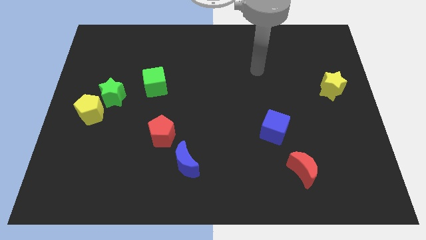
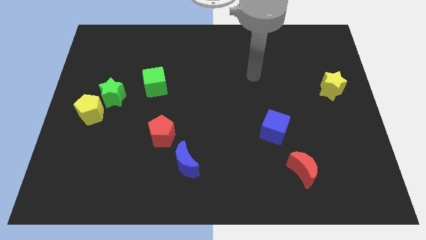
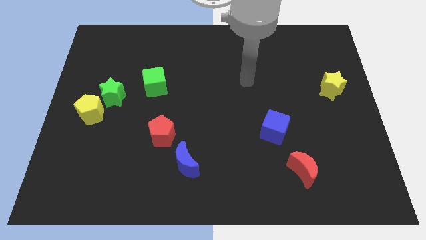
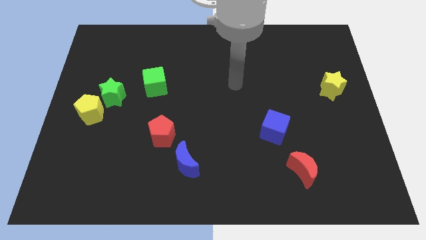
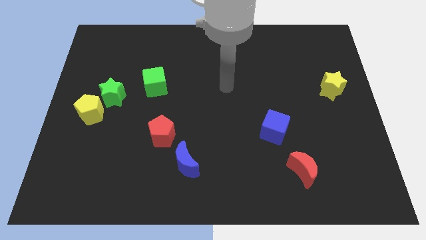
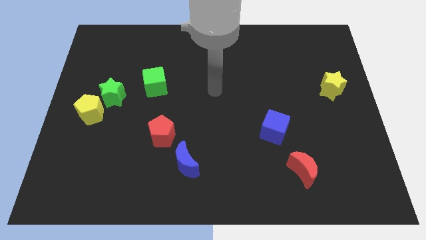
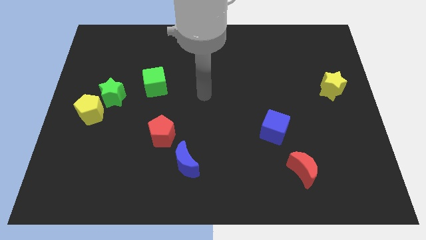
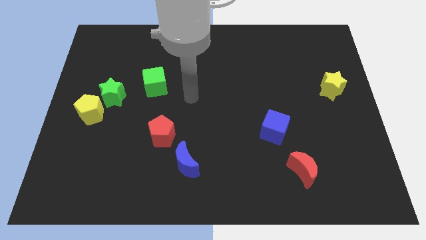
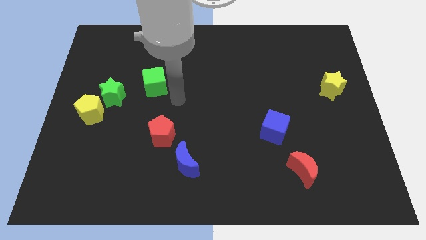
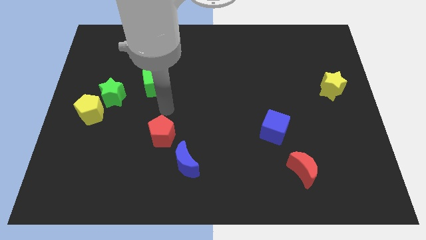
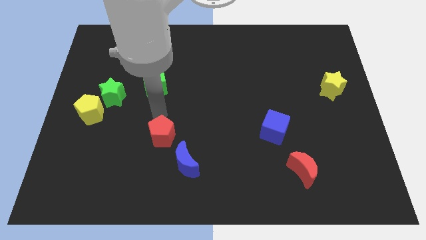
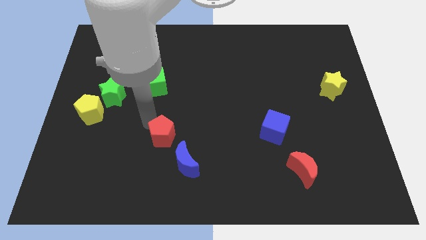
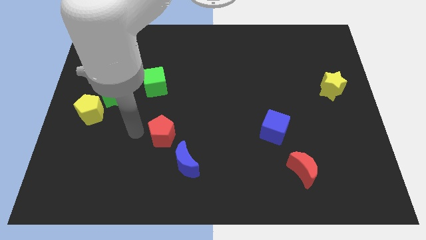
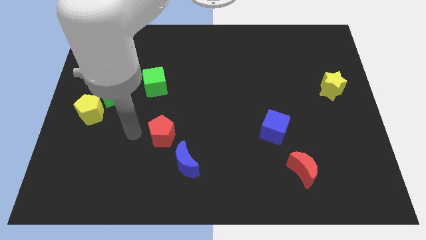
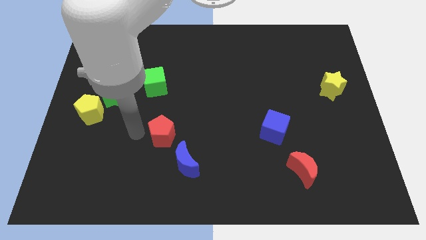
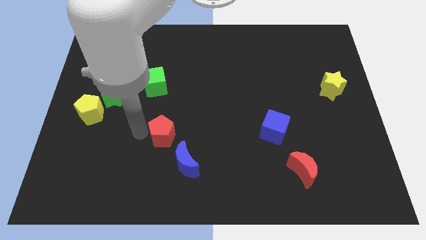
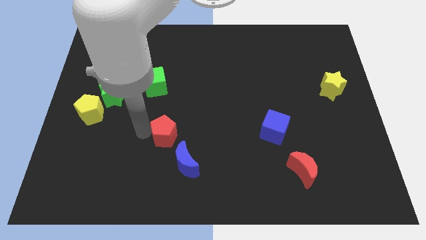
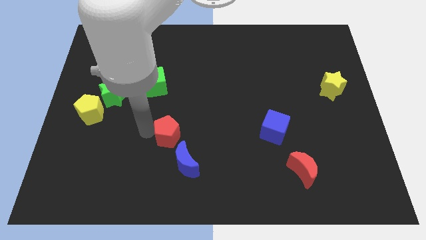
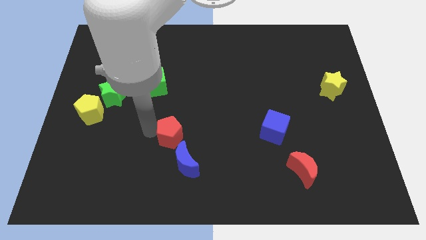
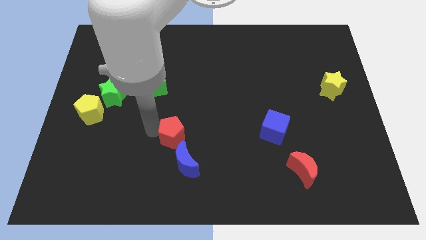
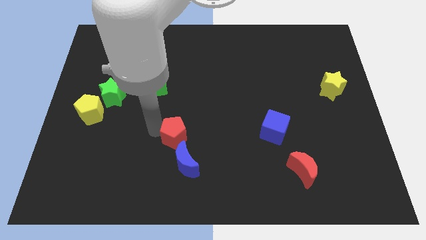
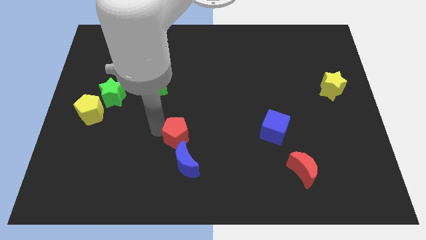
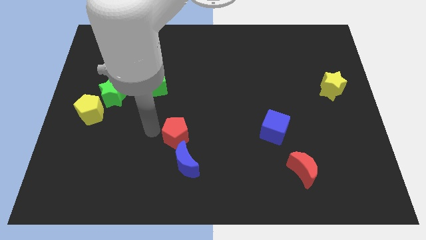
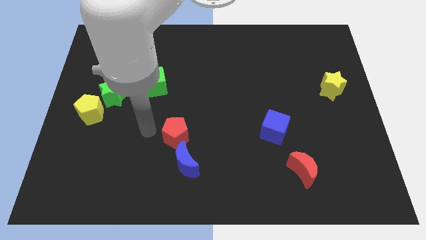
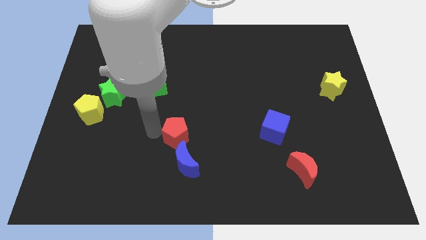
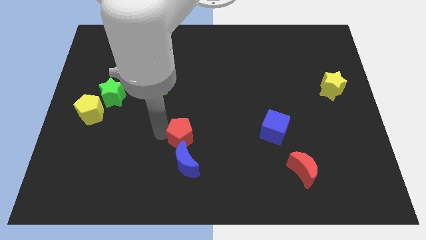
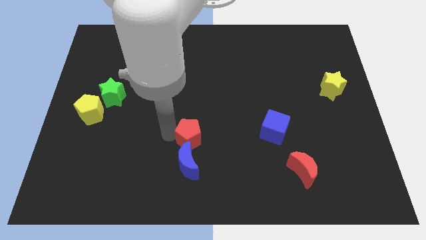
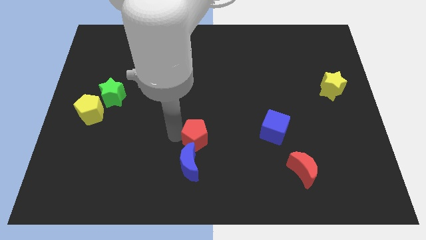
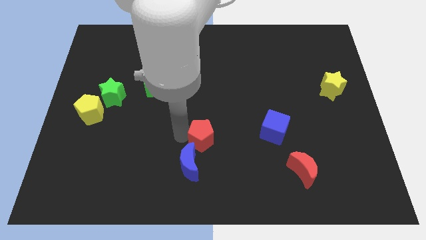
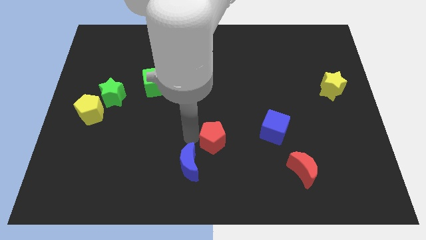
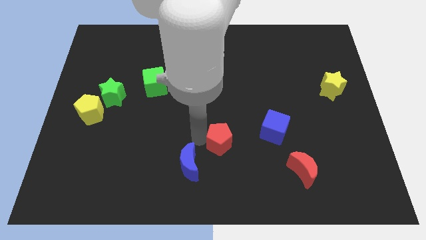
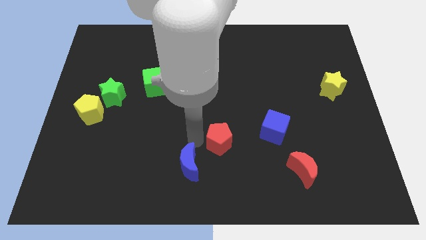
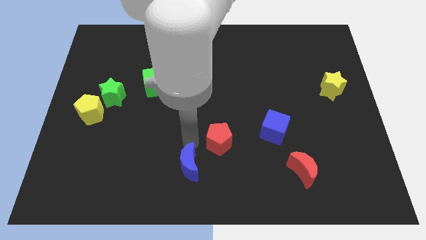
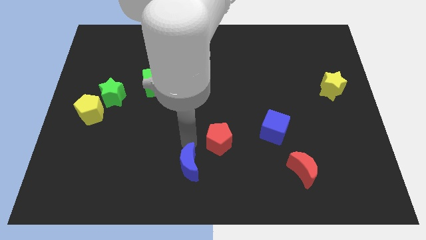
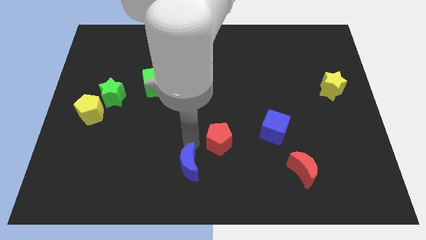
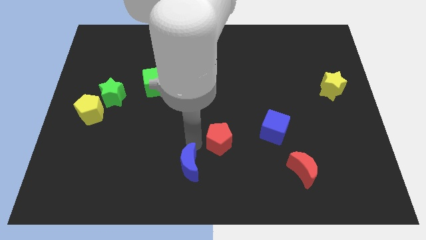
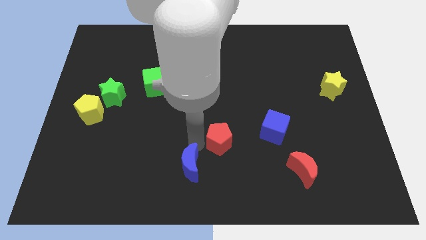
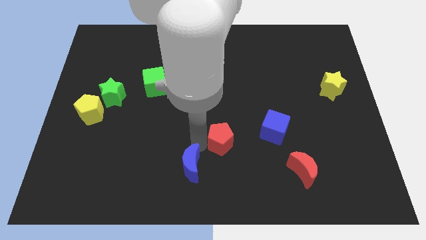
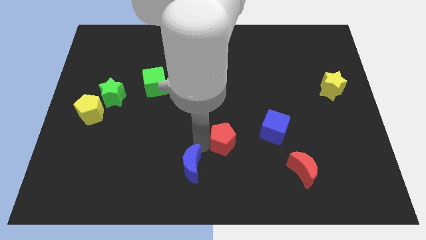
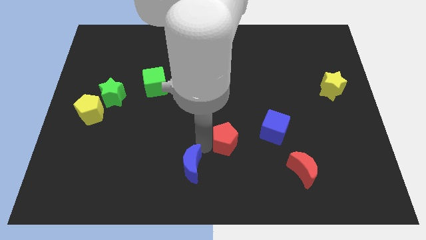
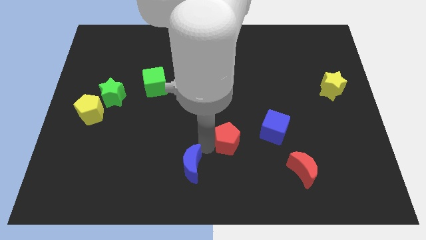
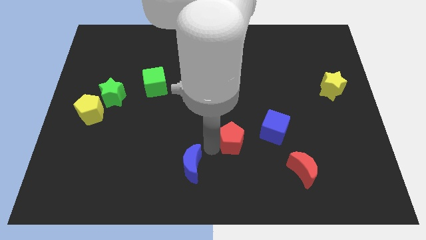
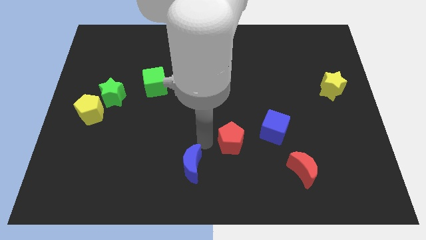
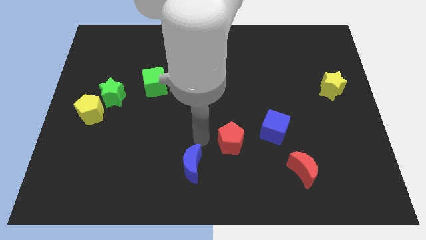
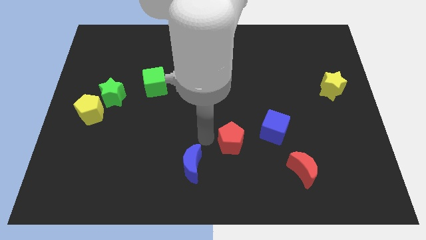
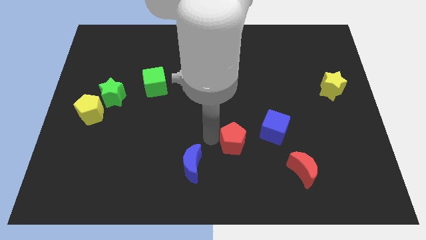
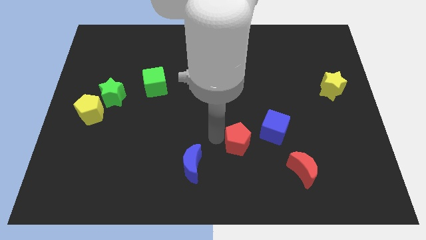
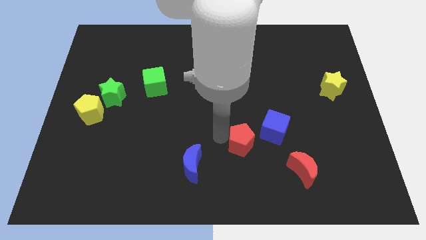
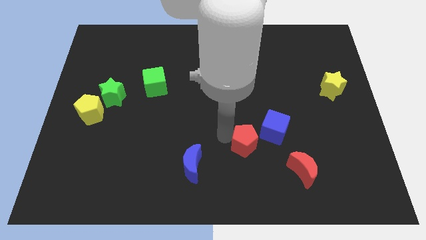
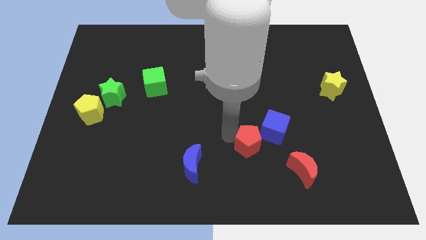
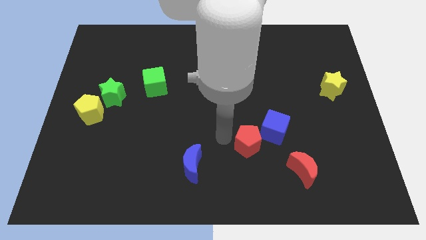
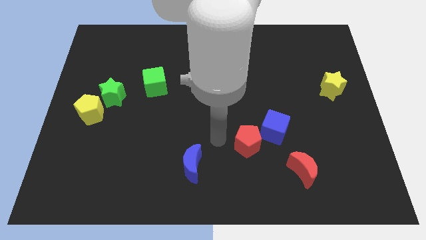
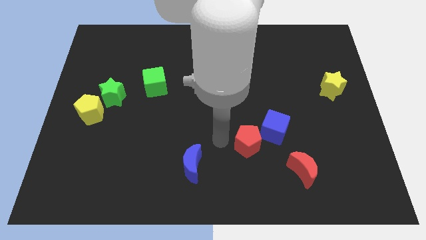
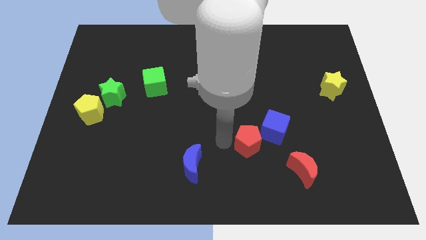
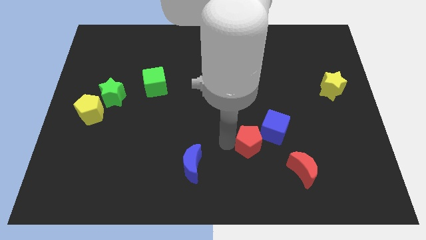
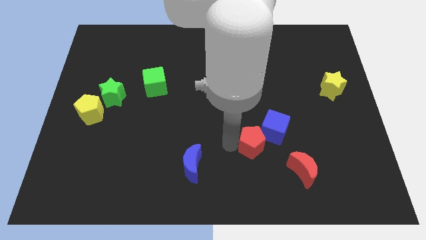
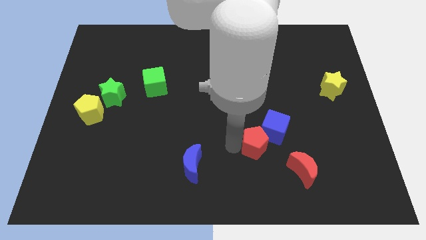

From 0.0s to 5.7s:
push the red pentagon right

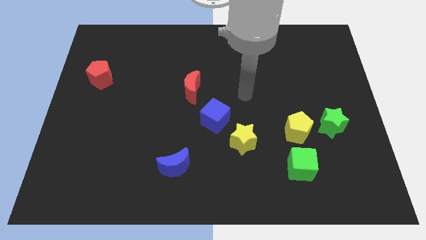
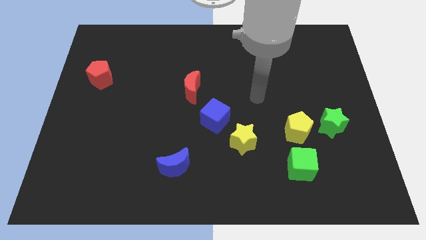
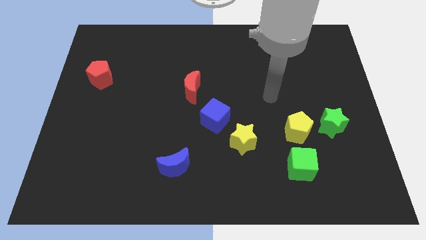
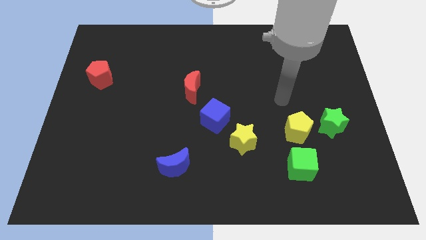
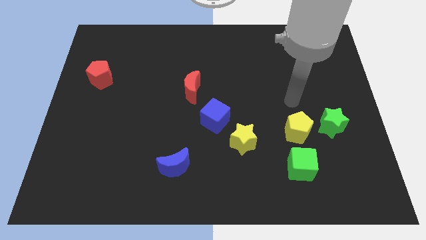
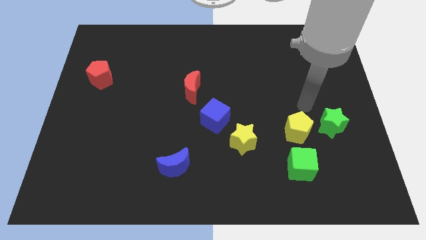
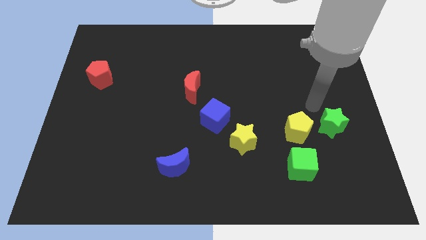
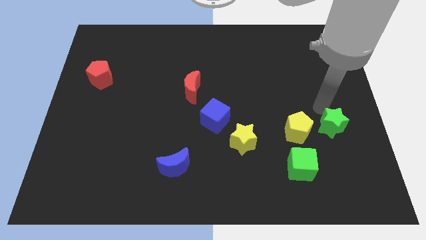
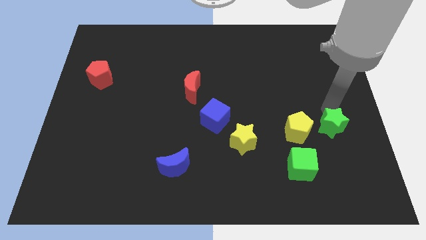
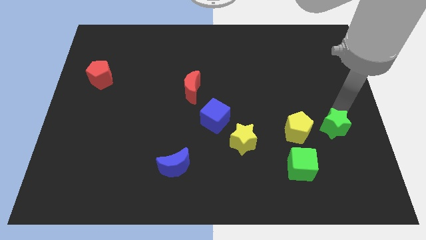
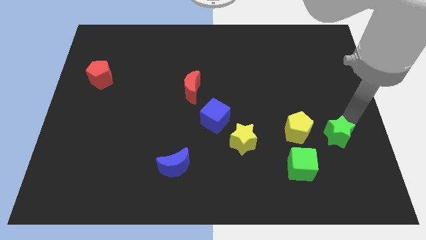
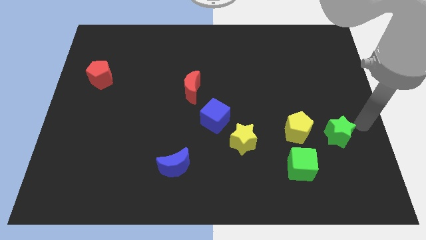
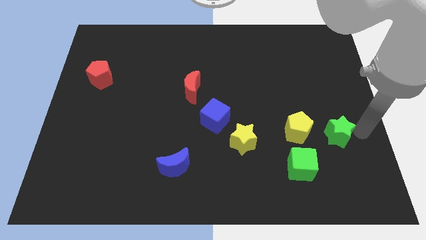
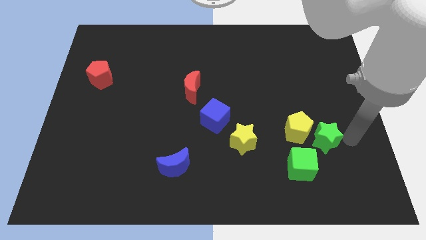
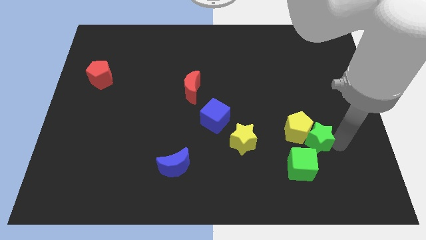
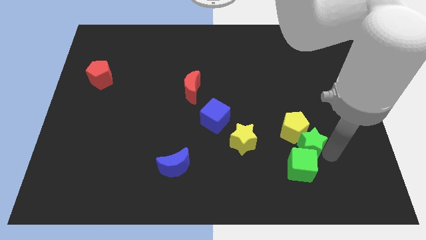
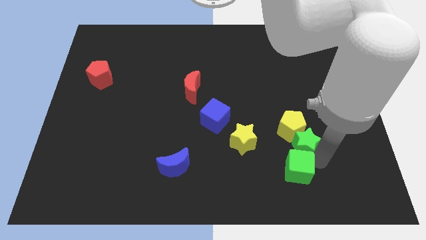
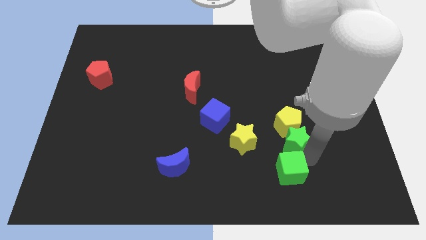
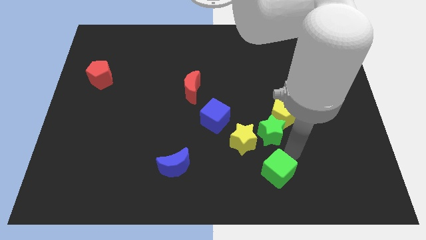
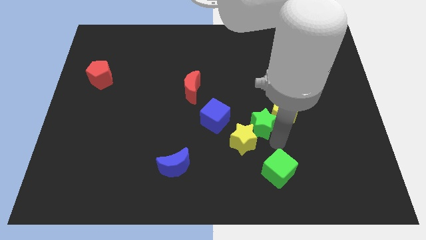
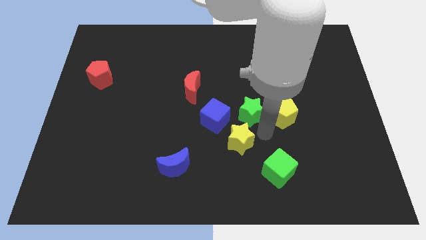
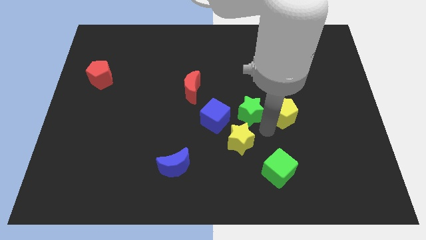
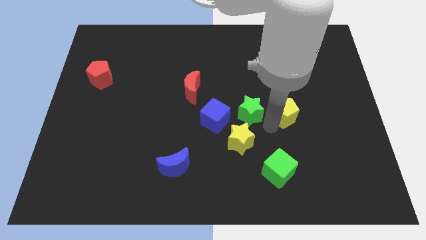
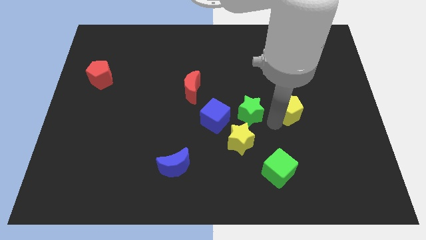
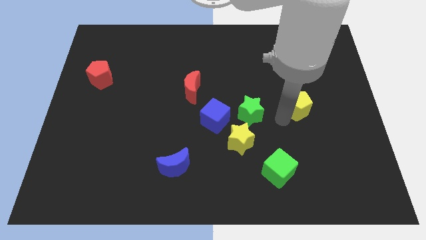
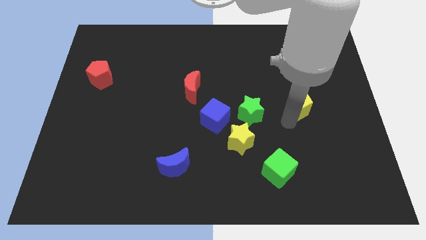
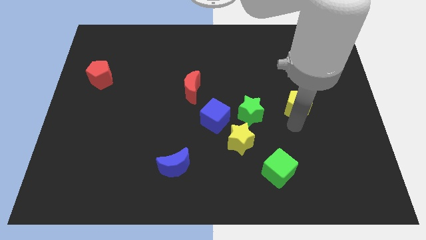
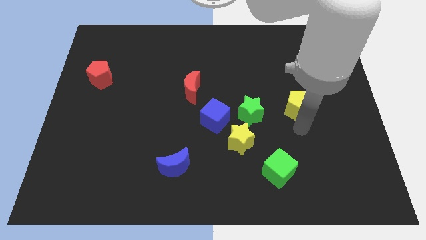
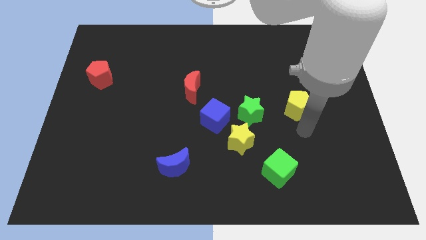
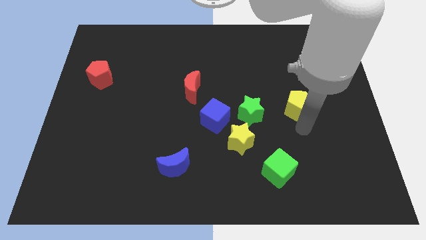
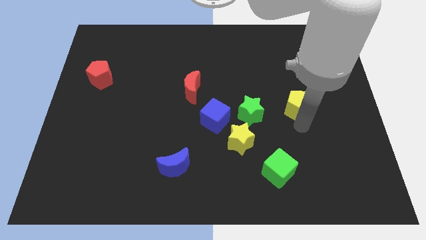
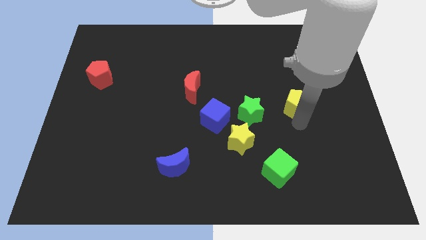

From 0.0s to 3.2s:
slightly slide the yellow pentagon up
